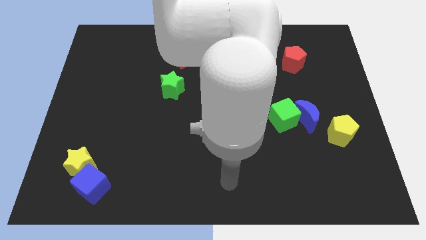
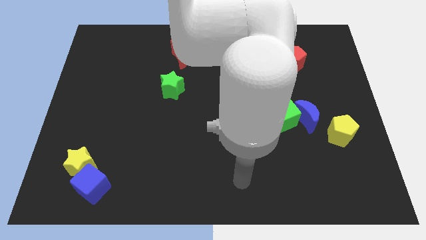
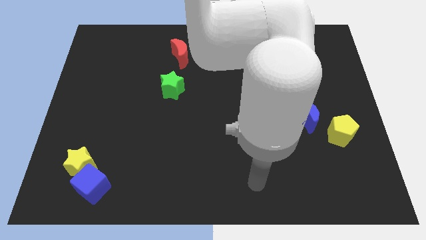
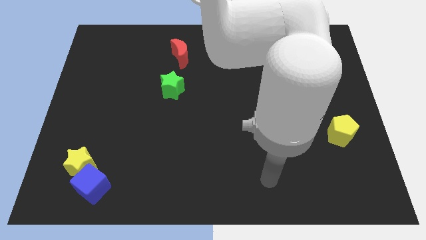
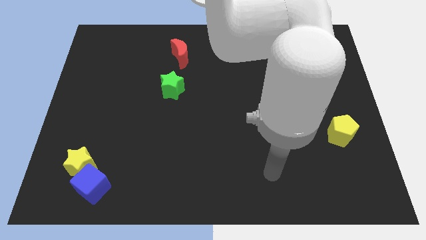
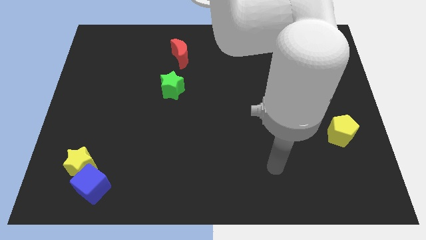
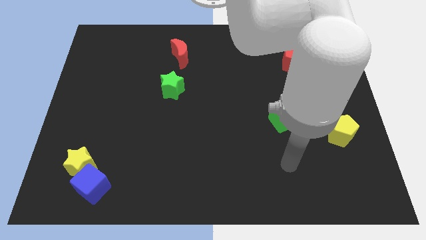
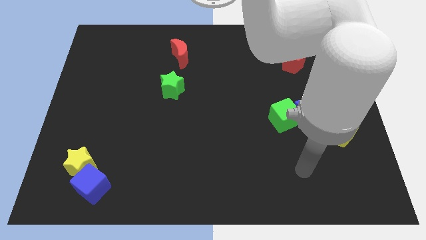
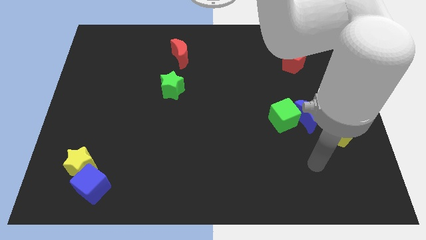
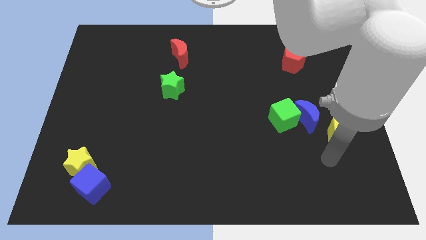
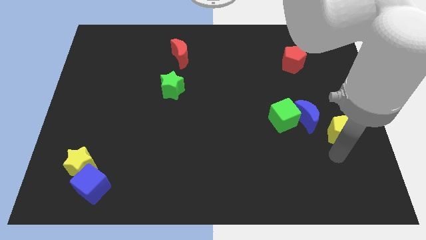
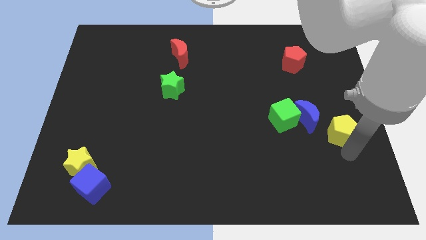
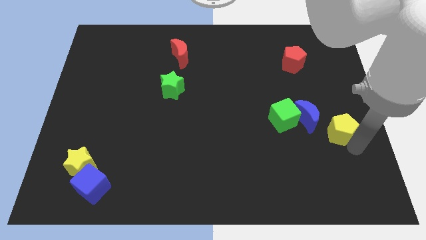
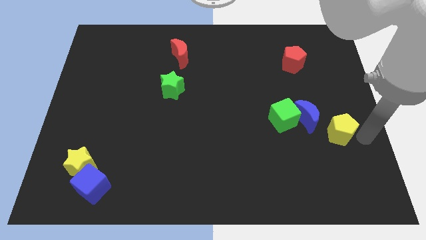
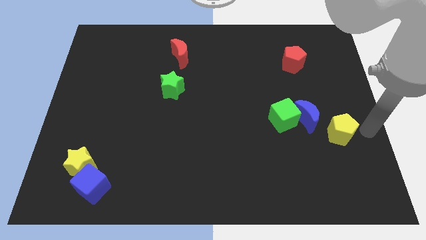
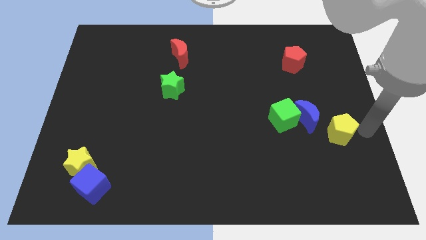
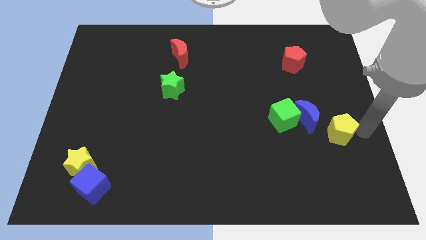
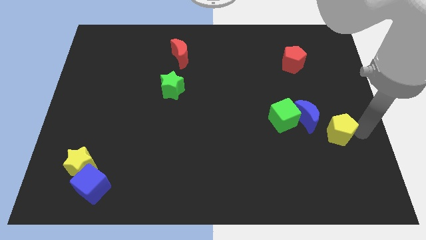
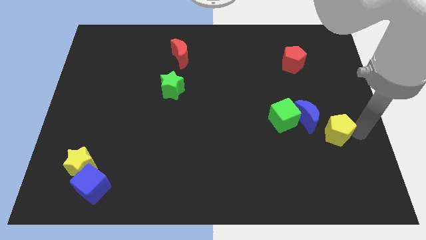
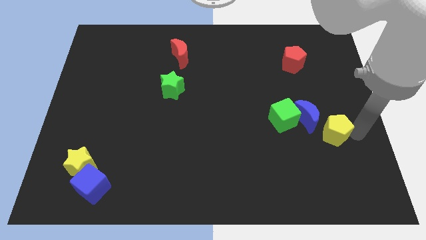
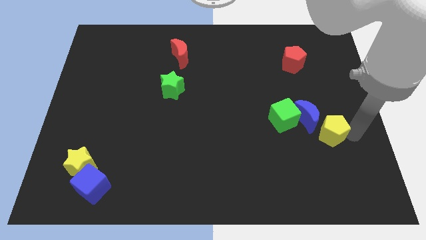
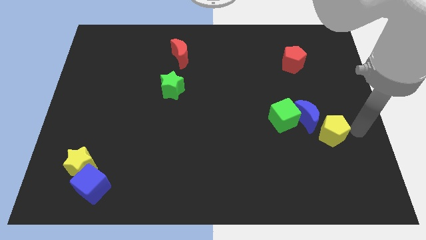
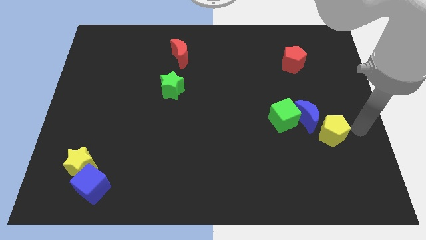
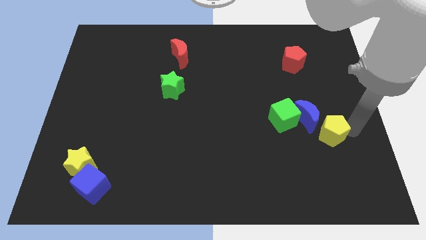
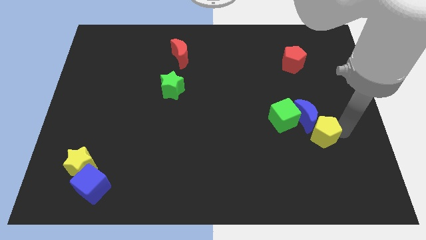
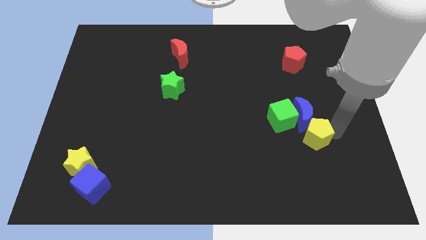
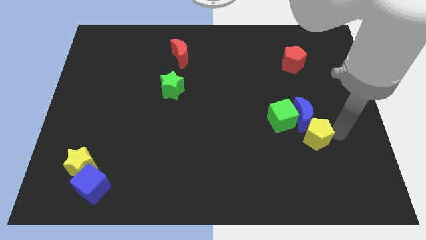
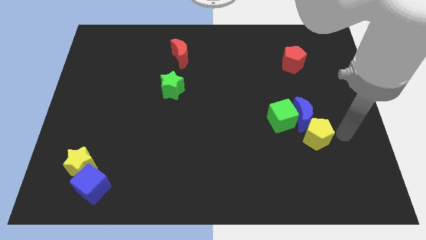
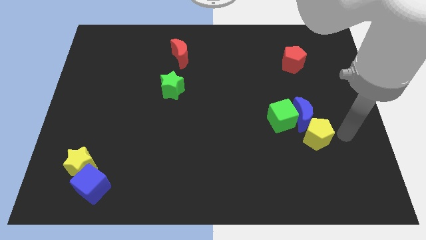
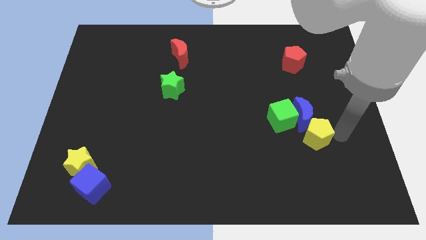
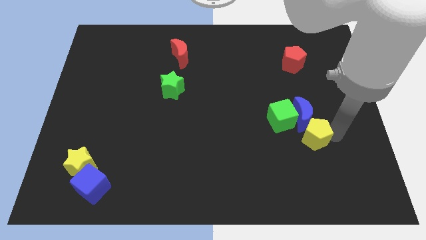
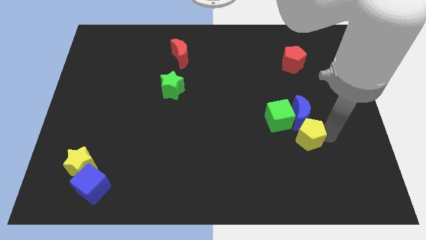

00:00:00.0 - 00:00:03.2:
slightly move the yellow pentagon left

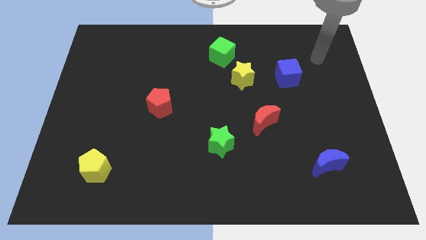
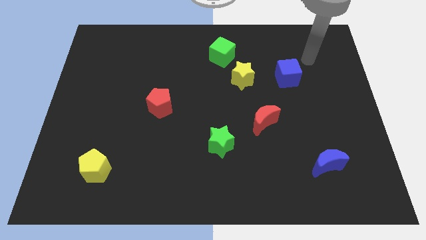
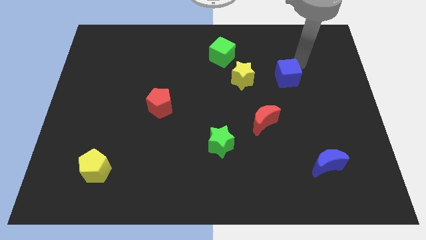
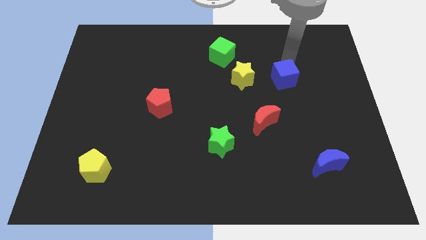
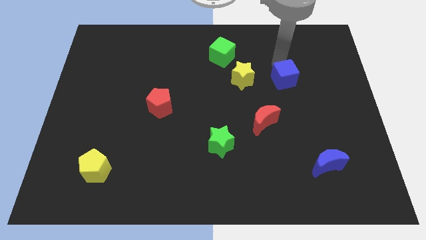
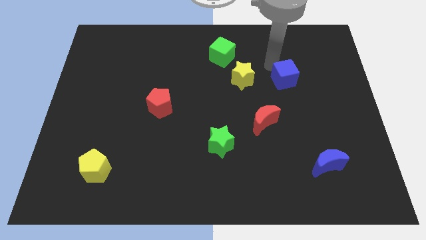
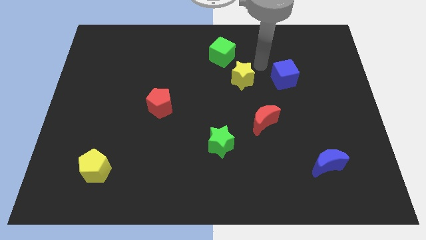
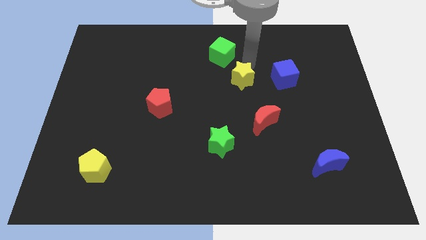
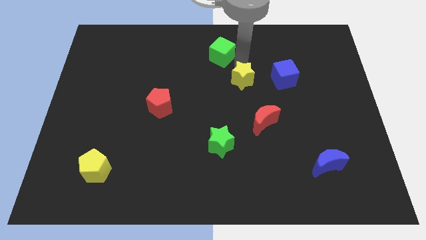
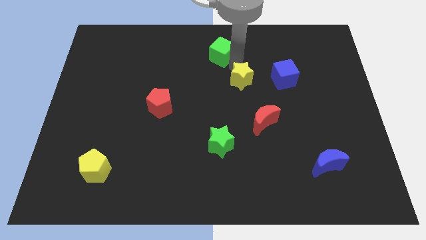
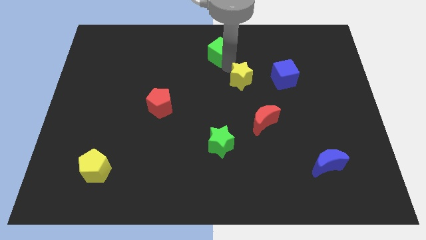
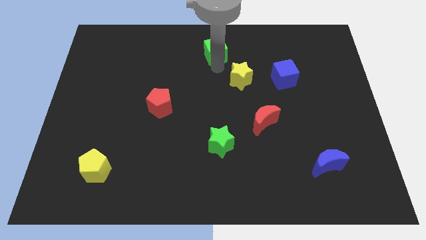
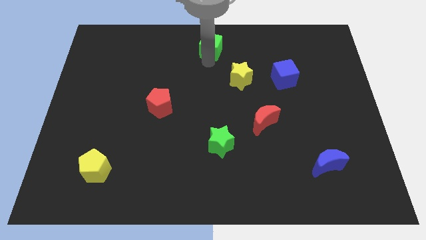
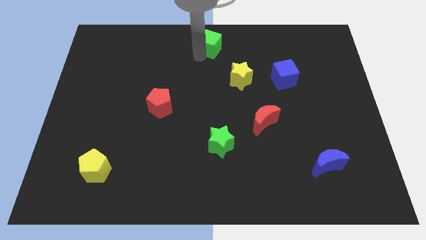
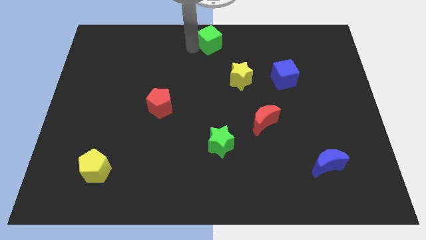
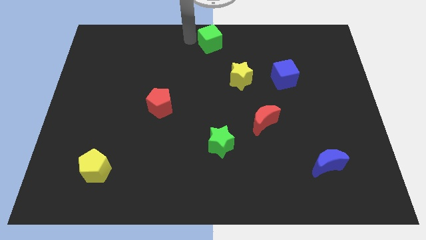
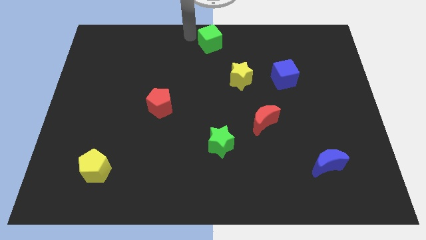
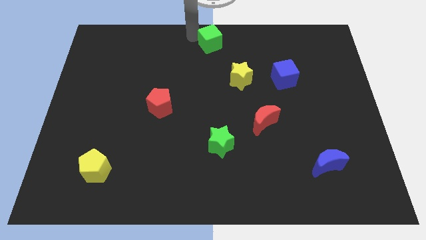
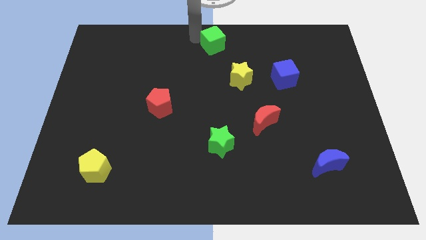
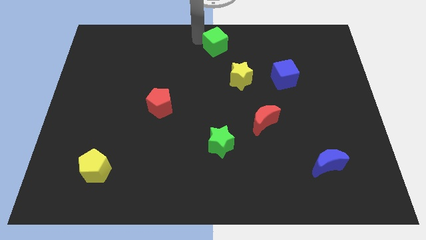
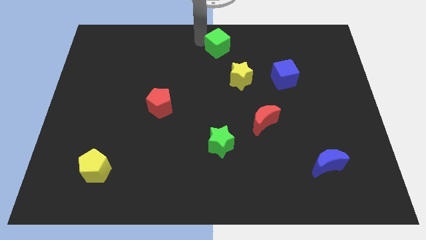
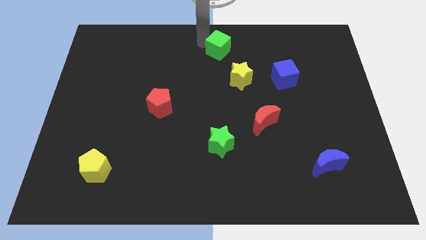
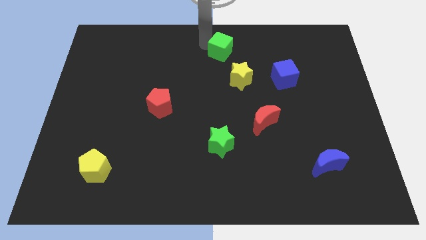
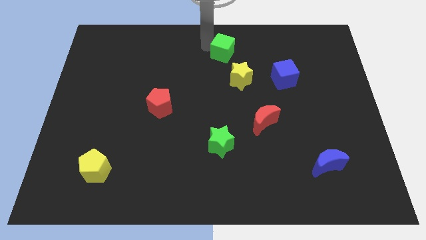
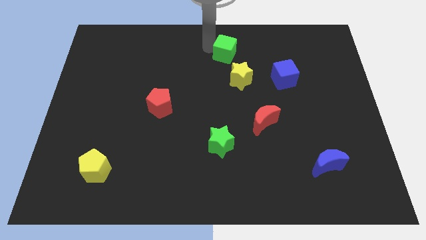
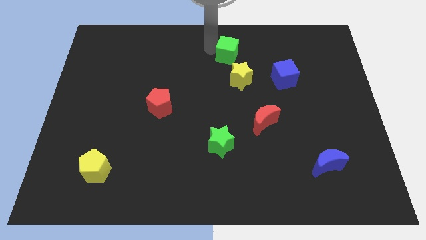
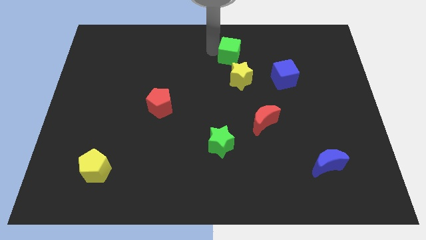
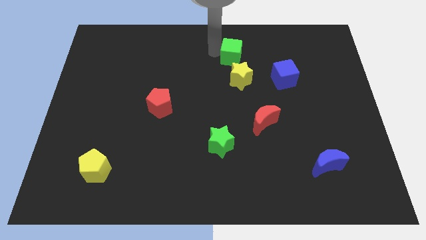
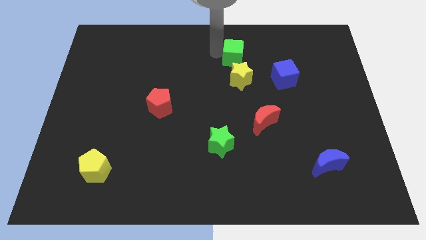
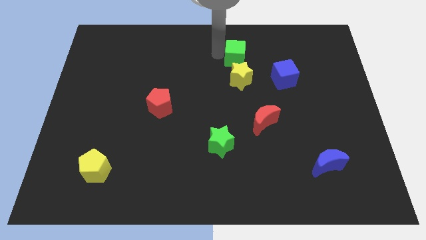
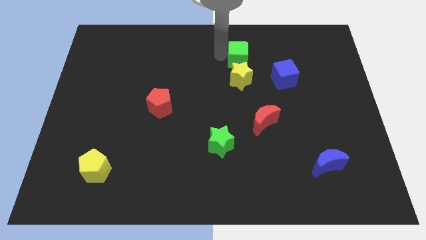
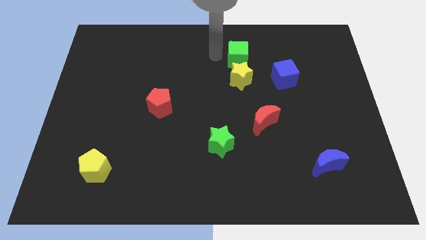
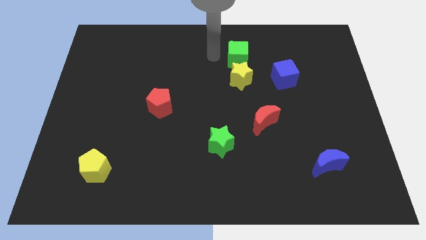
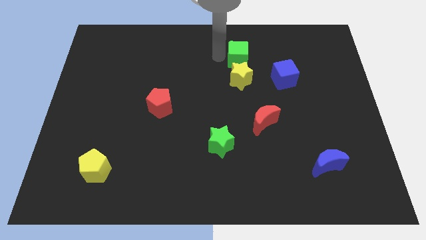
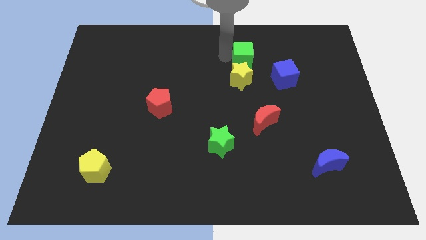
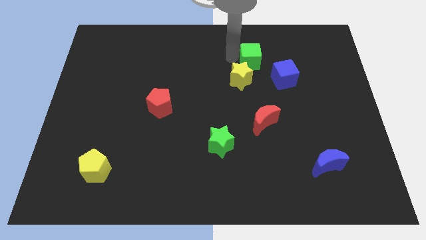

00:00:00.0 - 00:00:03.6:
slightly move the green cube to the right

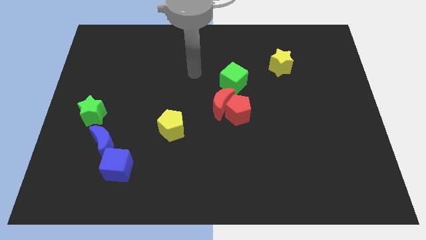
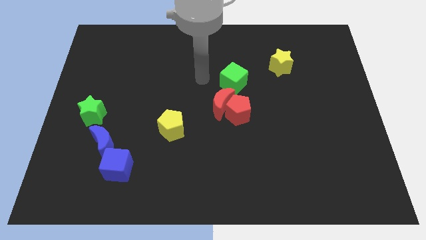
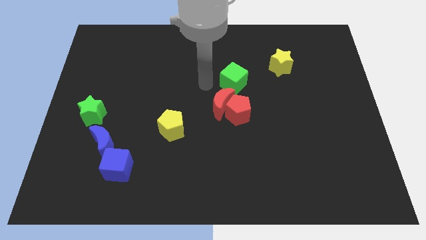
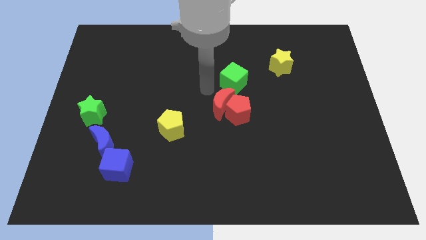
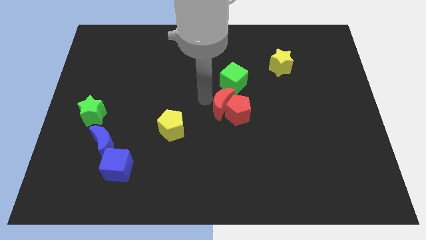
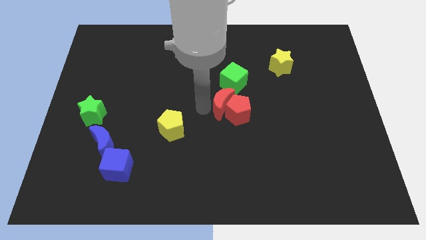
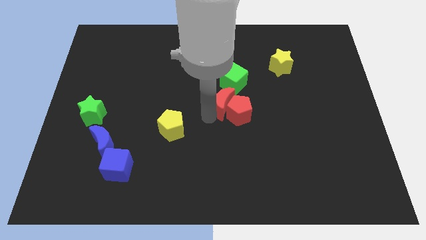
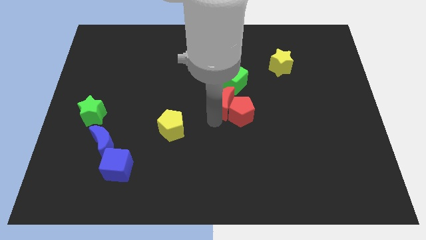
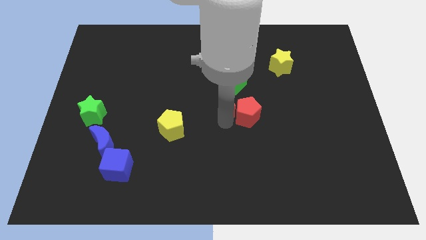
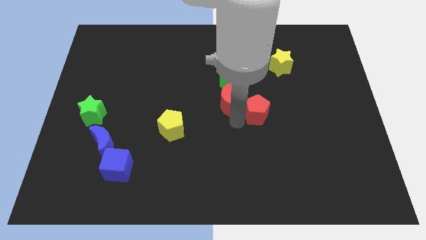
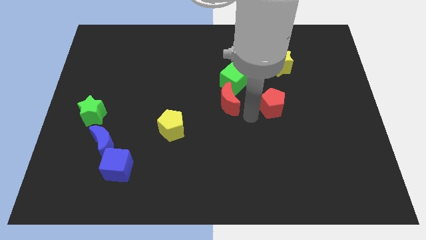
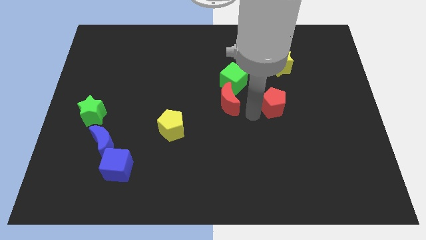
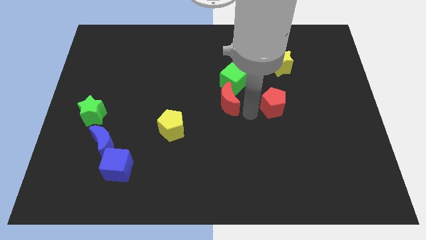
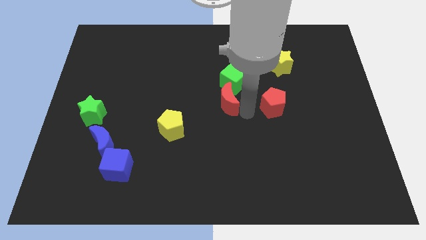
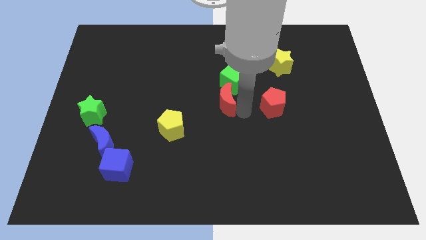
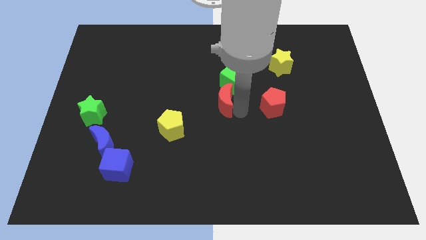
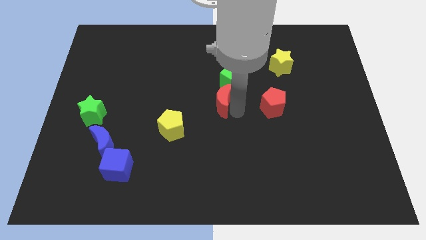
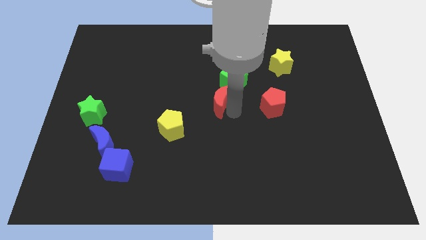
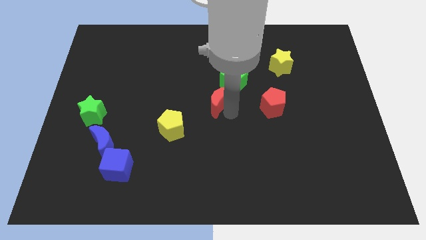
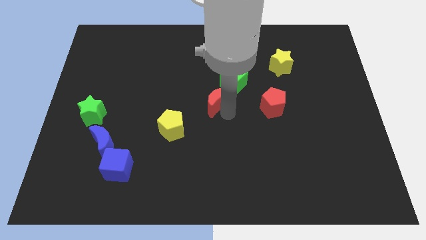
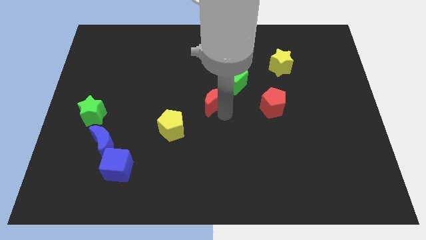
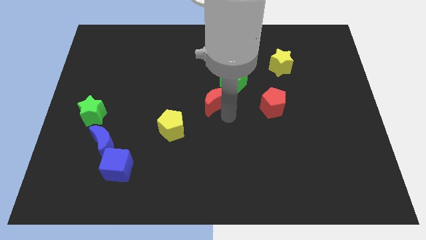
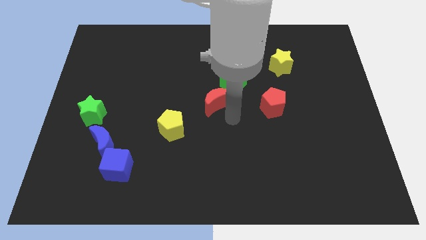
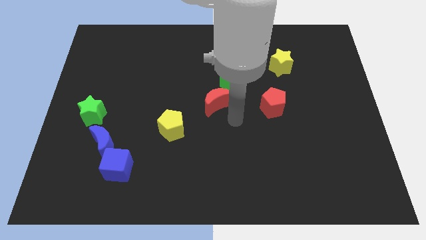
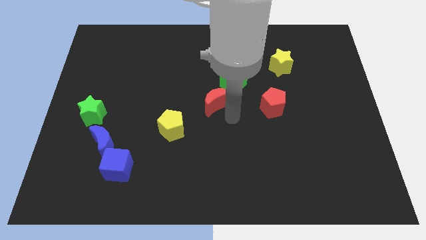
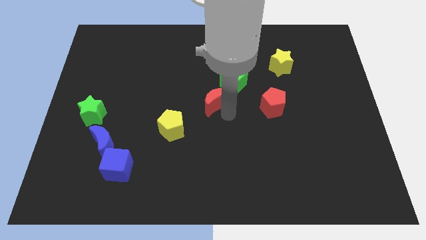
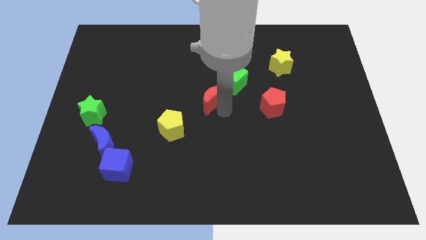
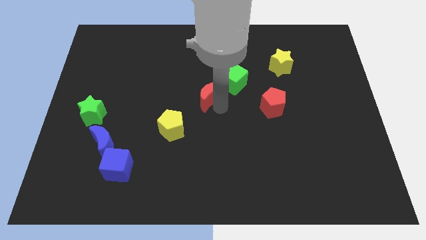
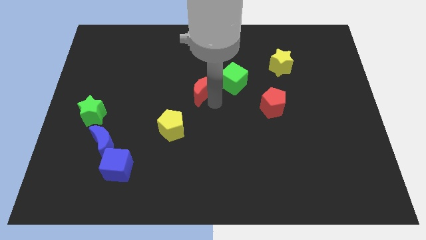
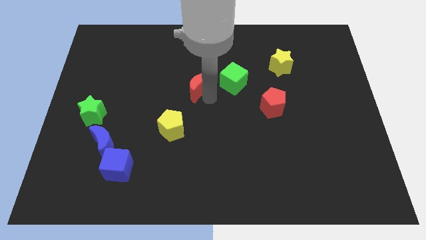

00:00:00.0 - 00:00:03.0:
move the red moon upwards and left diagonally a bit
